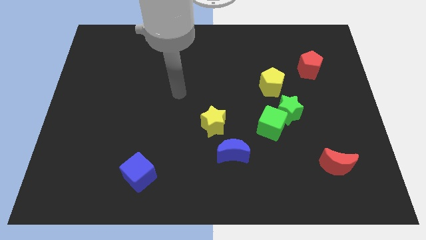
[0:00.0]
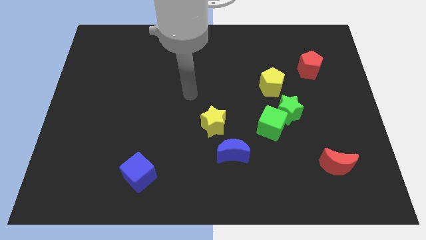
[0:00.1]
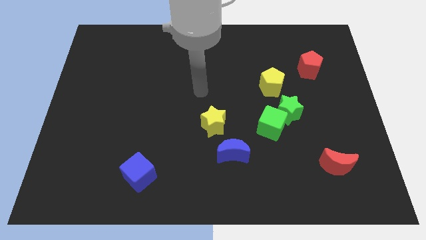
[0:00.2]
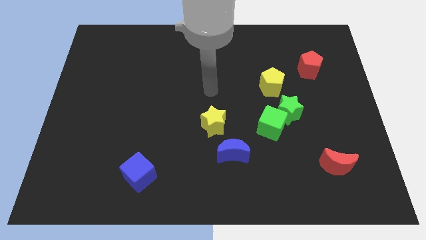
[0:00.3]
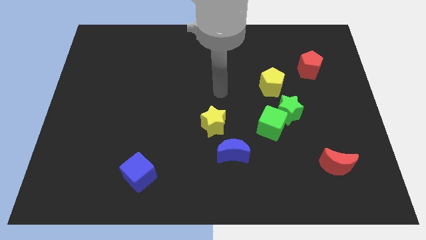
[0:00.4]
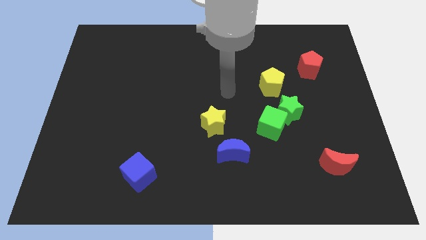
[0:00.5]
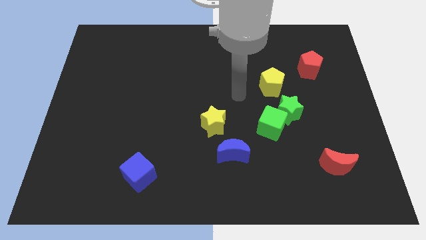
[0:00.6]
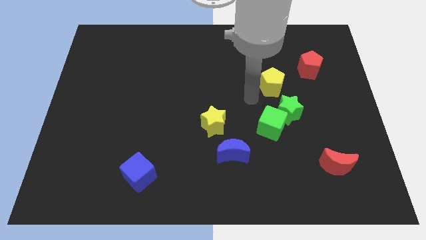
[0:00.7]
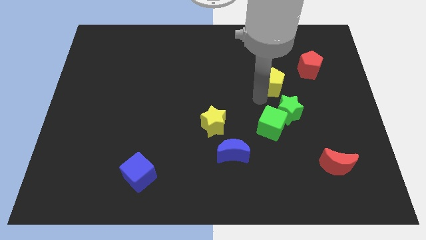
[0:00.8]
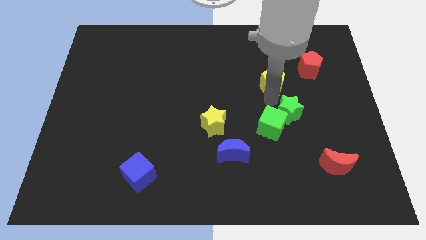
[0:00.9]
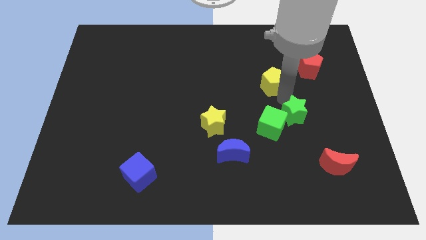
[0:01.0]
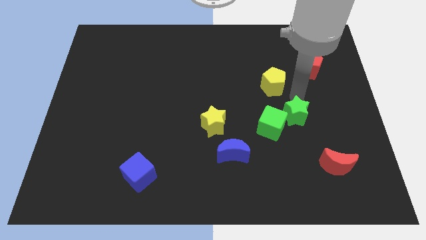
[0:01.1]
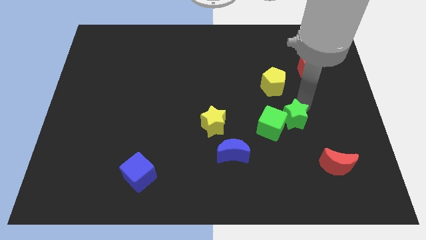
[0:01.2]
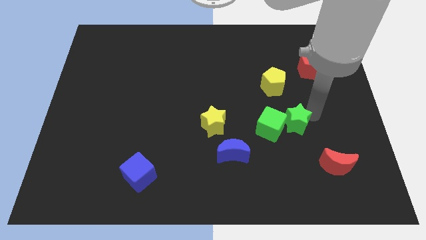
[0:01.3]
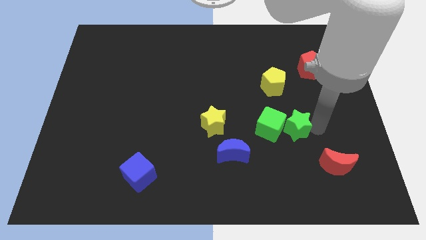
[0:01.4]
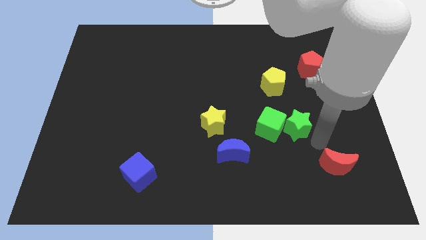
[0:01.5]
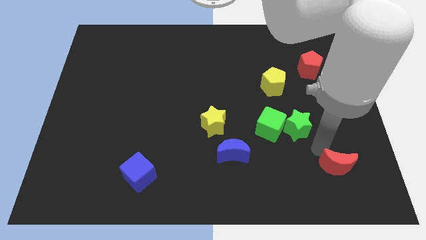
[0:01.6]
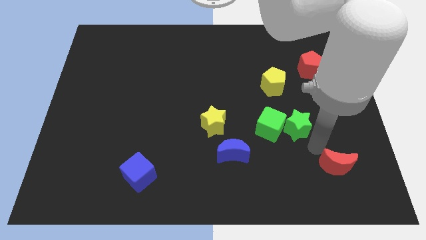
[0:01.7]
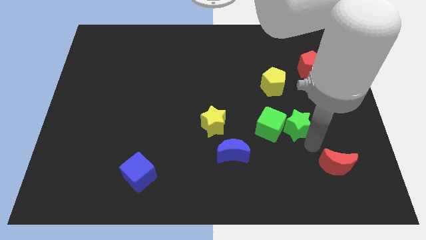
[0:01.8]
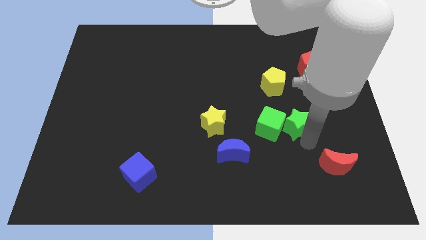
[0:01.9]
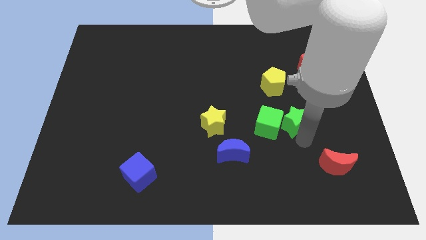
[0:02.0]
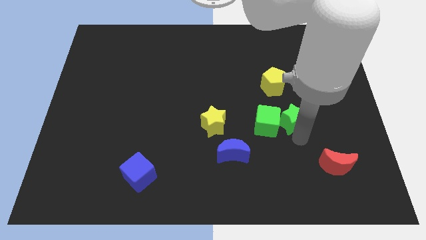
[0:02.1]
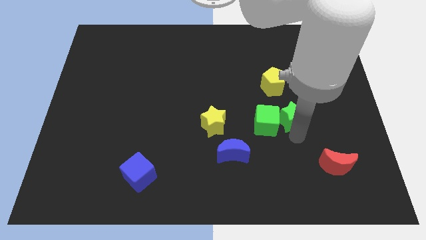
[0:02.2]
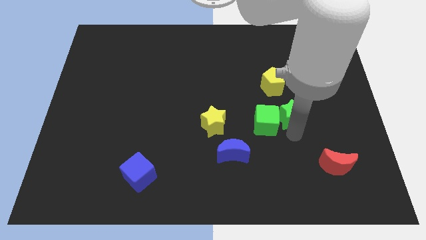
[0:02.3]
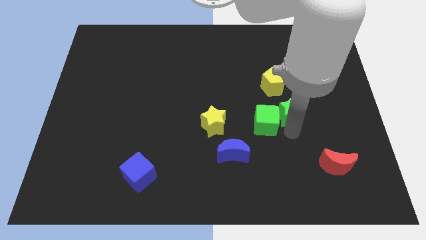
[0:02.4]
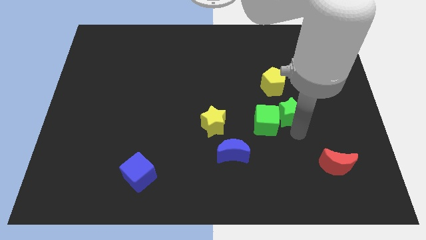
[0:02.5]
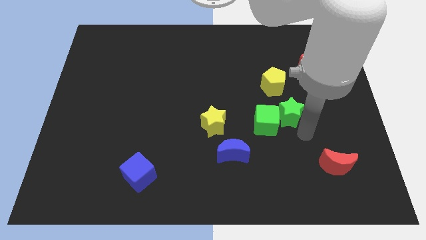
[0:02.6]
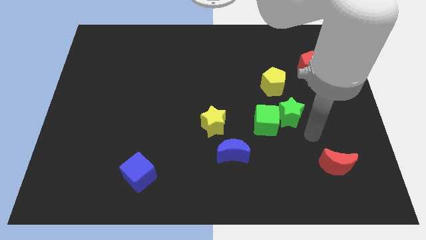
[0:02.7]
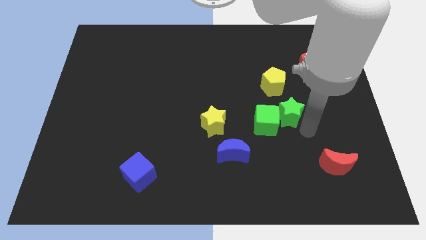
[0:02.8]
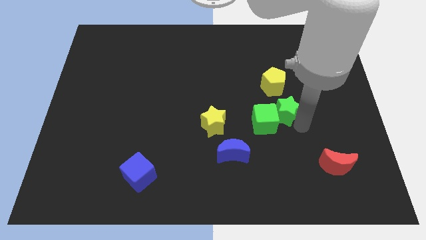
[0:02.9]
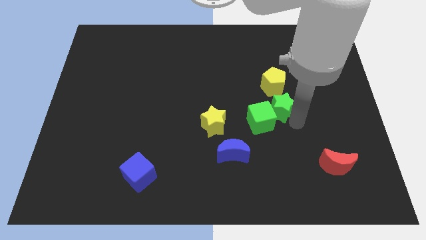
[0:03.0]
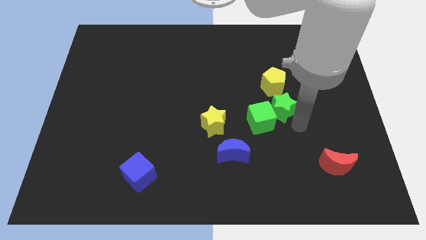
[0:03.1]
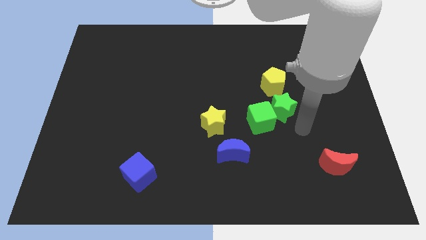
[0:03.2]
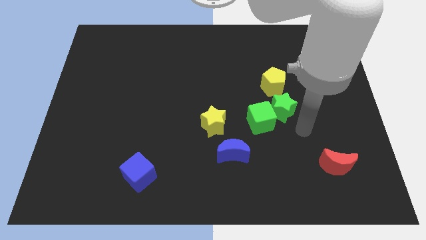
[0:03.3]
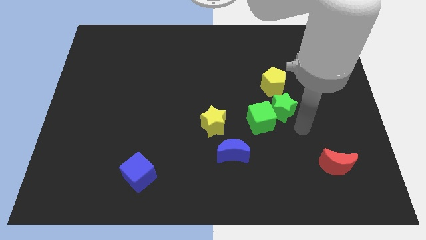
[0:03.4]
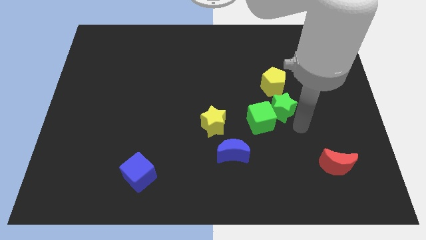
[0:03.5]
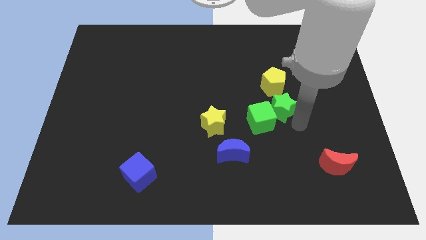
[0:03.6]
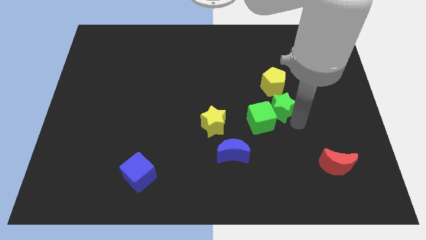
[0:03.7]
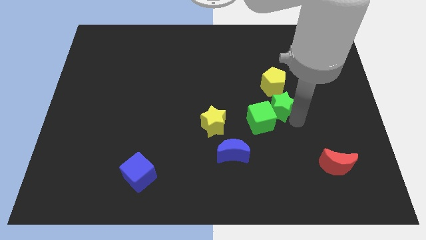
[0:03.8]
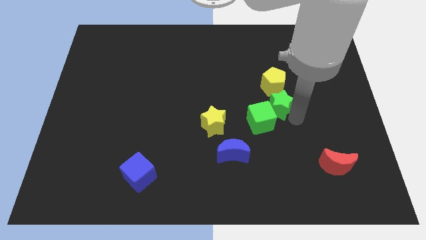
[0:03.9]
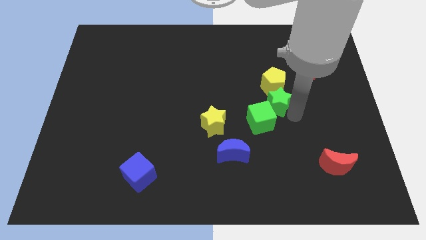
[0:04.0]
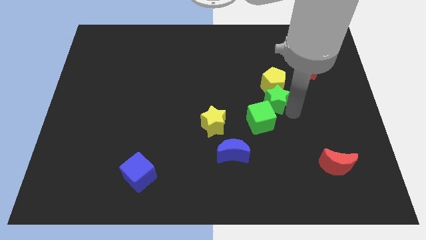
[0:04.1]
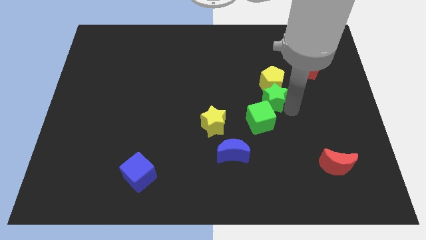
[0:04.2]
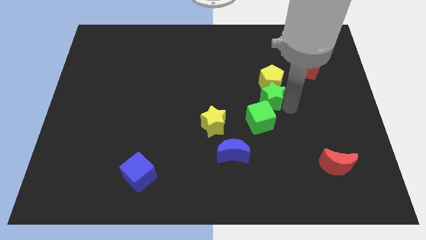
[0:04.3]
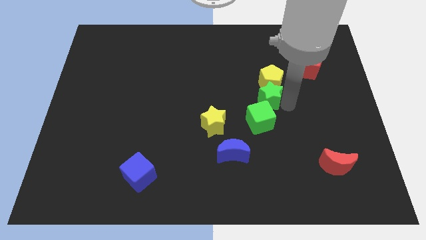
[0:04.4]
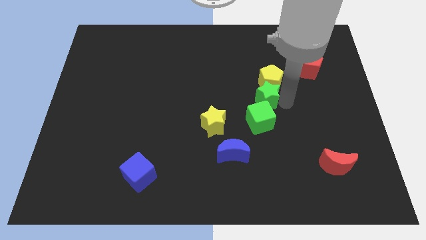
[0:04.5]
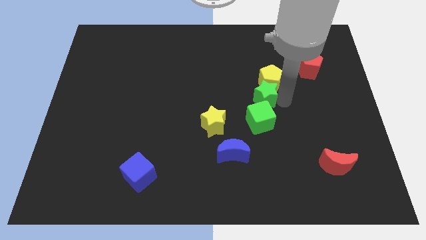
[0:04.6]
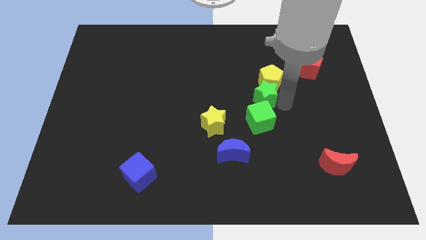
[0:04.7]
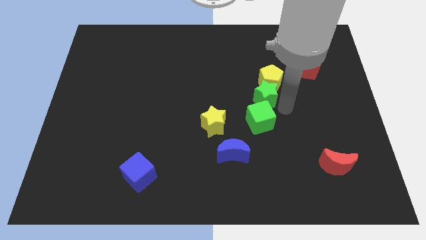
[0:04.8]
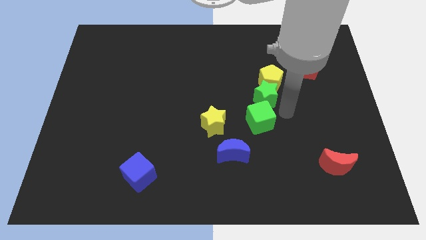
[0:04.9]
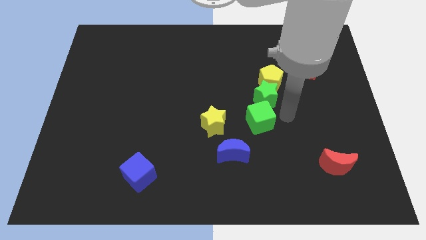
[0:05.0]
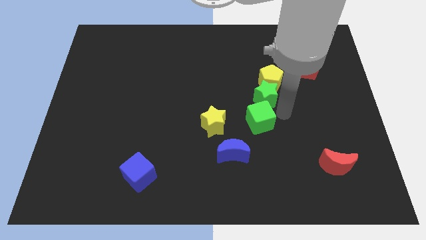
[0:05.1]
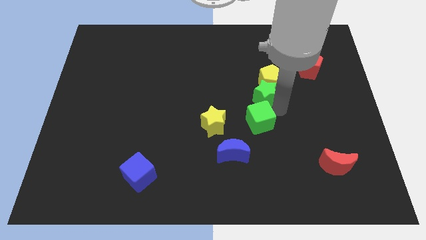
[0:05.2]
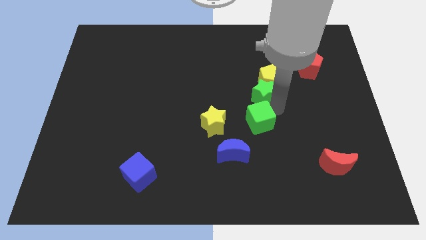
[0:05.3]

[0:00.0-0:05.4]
move the green star slightly upwards and then to the left

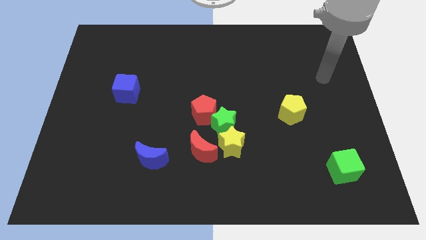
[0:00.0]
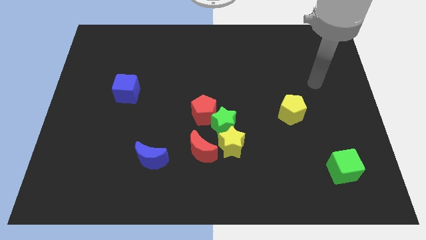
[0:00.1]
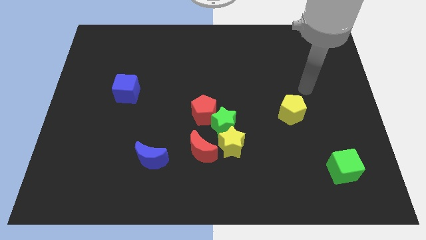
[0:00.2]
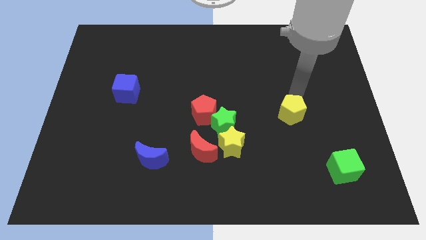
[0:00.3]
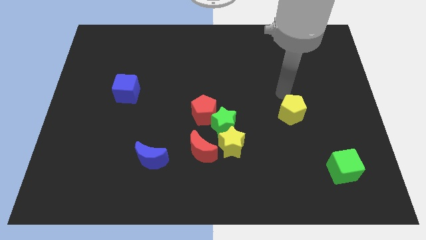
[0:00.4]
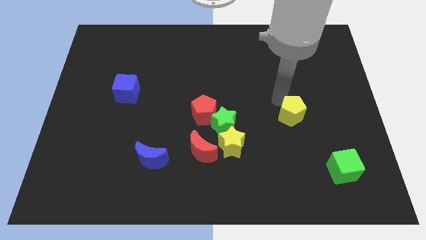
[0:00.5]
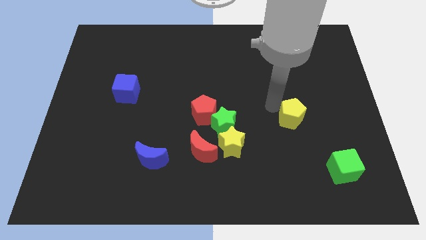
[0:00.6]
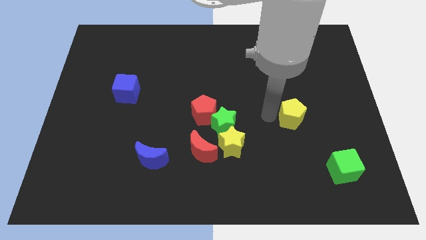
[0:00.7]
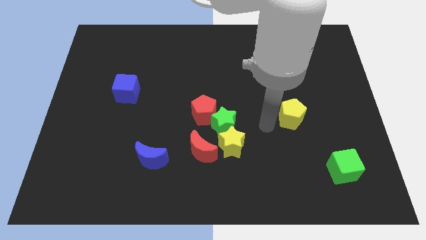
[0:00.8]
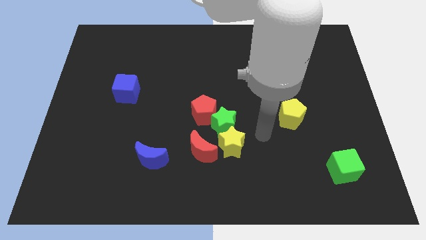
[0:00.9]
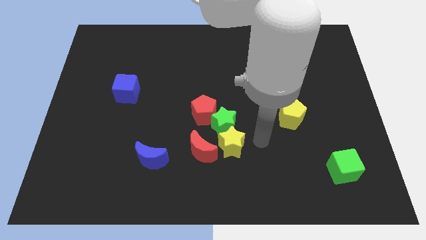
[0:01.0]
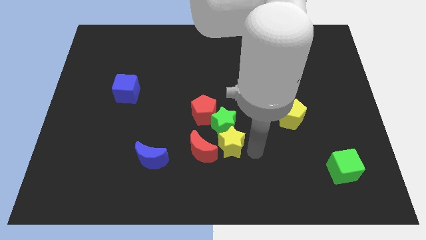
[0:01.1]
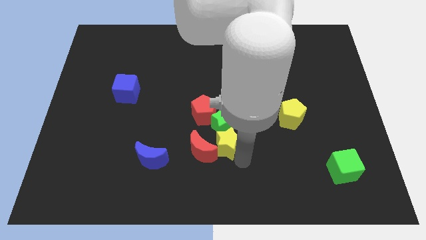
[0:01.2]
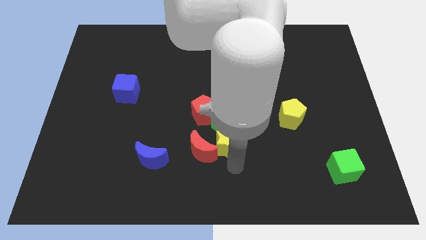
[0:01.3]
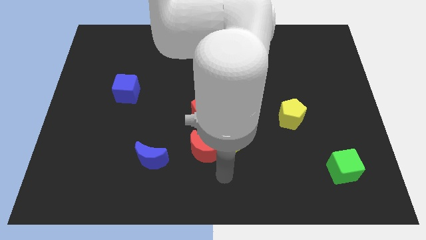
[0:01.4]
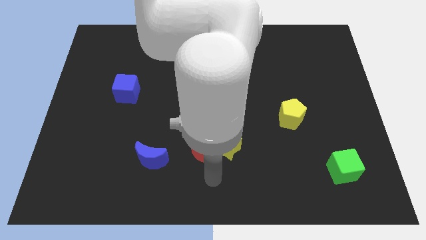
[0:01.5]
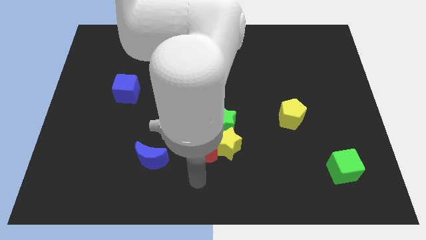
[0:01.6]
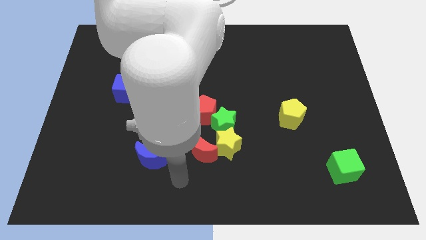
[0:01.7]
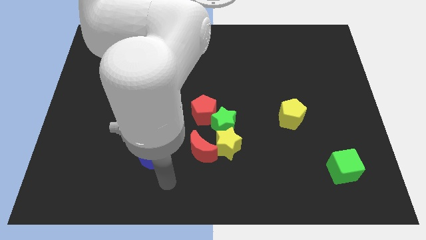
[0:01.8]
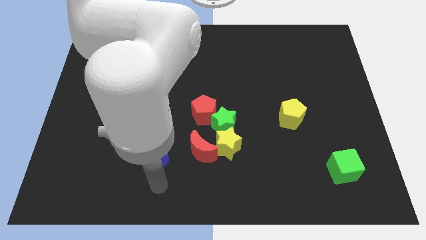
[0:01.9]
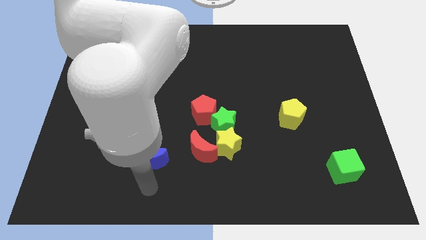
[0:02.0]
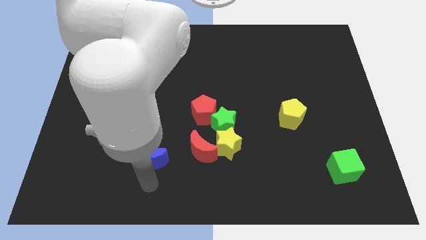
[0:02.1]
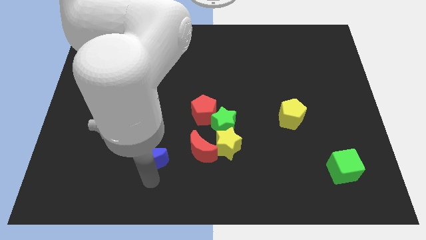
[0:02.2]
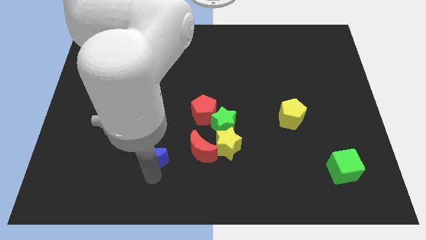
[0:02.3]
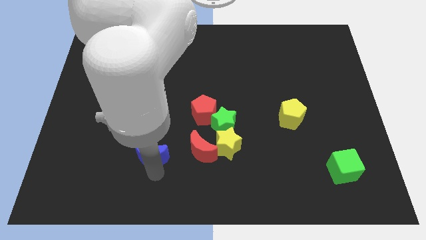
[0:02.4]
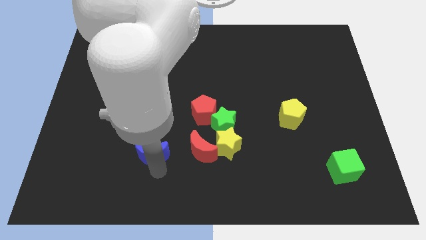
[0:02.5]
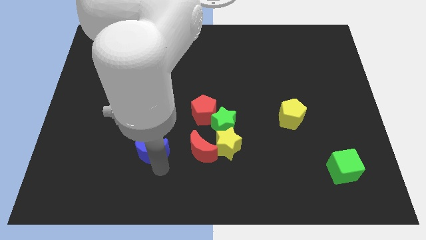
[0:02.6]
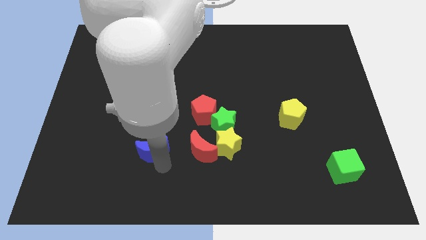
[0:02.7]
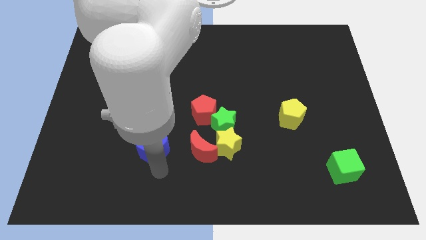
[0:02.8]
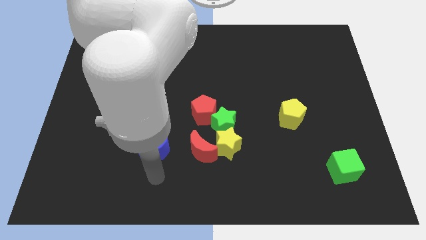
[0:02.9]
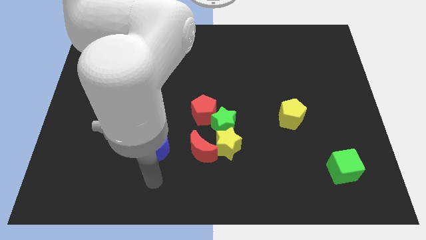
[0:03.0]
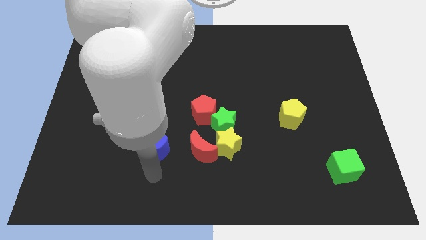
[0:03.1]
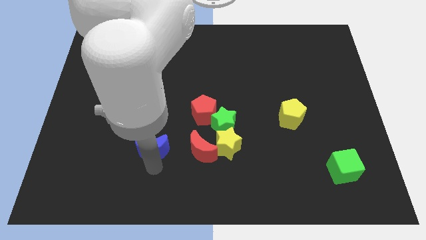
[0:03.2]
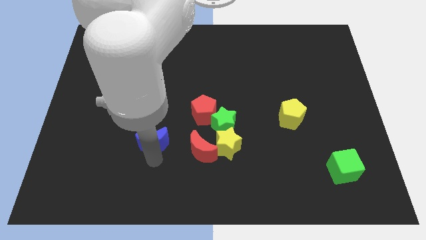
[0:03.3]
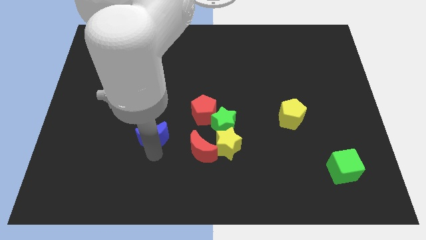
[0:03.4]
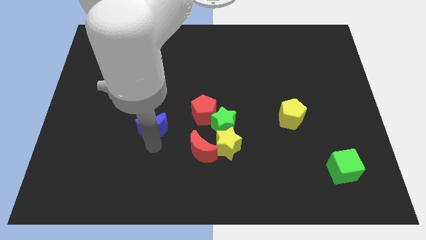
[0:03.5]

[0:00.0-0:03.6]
slightly slide the blue moon upwards
